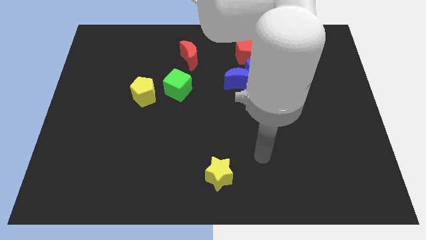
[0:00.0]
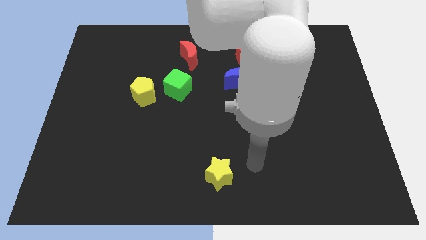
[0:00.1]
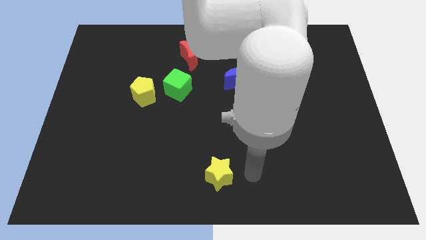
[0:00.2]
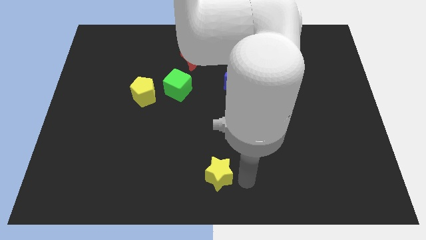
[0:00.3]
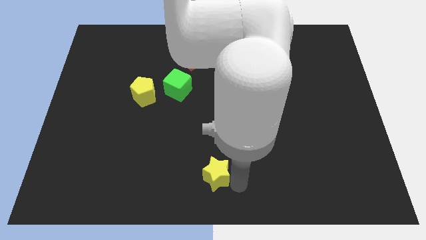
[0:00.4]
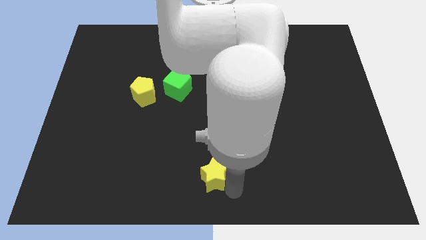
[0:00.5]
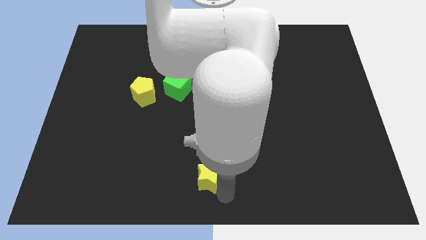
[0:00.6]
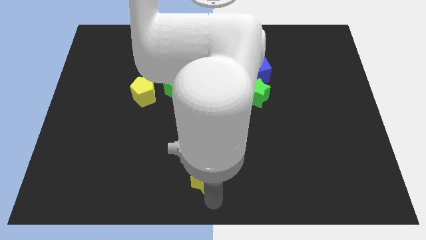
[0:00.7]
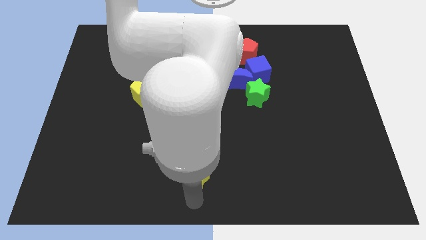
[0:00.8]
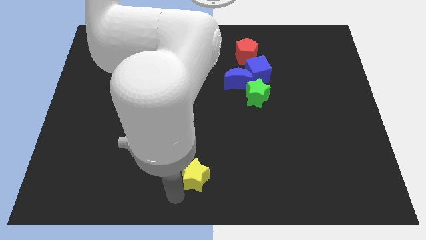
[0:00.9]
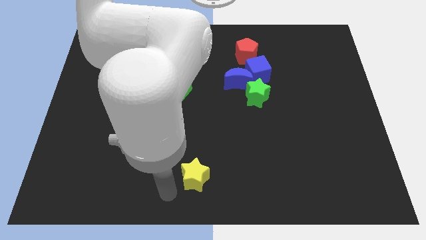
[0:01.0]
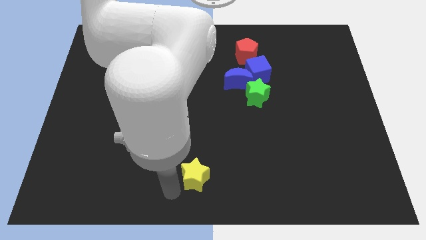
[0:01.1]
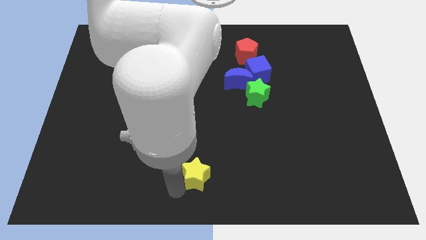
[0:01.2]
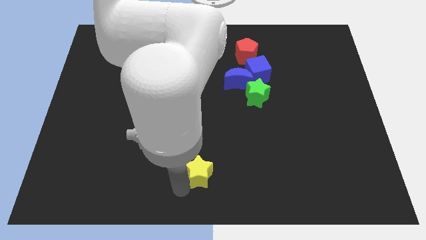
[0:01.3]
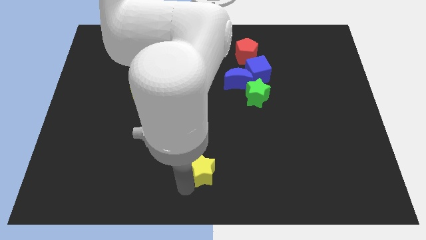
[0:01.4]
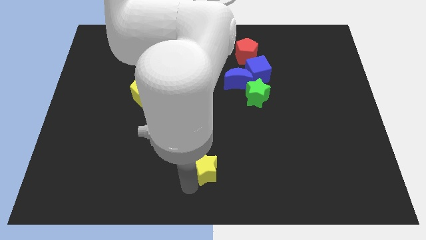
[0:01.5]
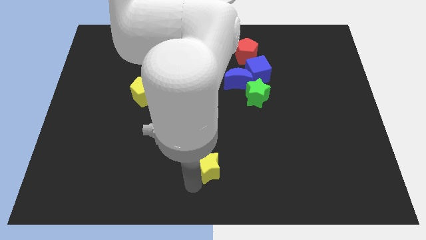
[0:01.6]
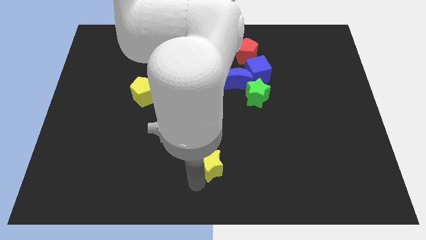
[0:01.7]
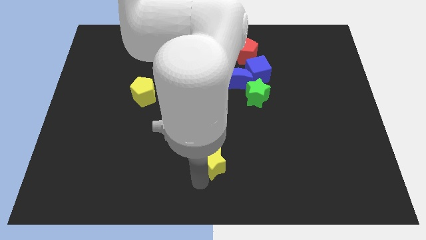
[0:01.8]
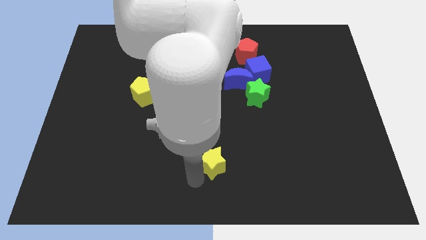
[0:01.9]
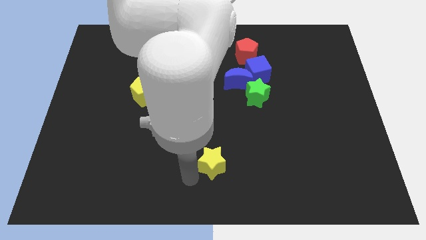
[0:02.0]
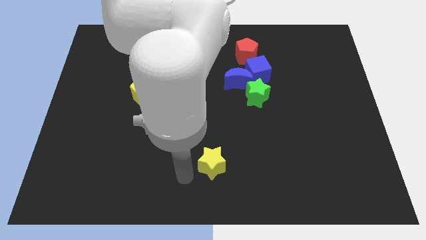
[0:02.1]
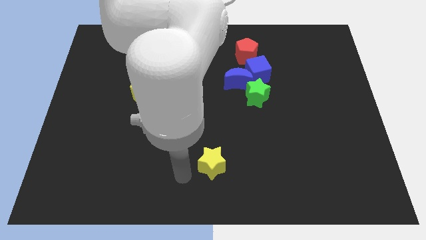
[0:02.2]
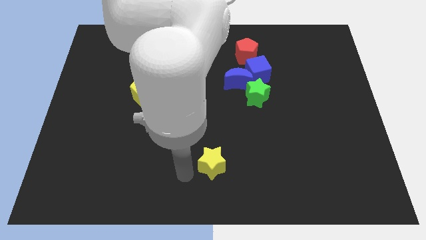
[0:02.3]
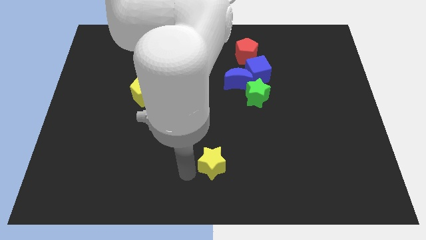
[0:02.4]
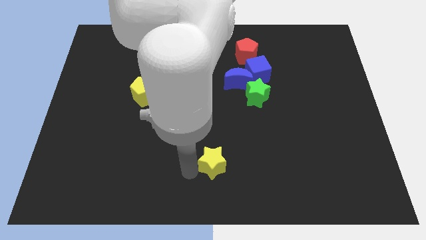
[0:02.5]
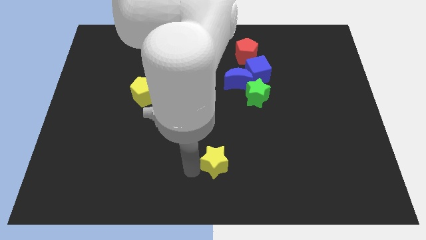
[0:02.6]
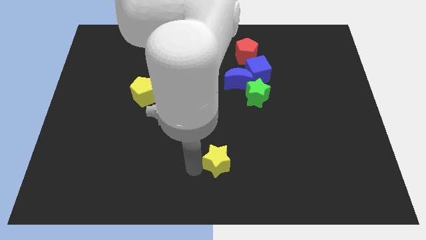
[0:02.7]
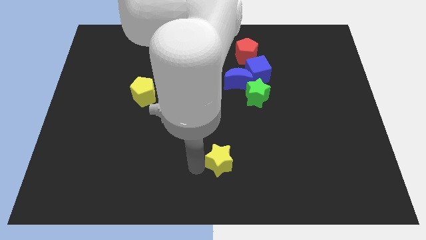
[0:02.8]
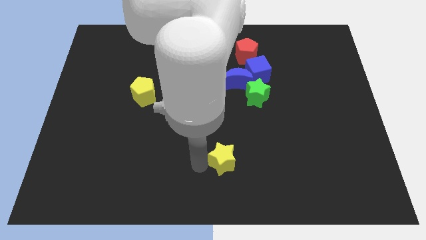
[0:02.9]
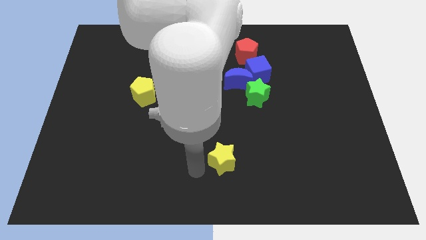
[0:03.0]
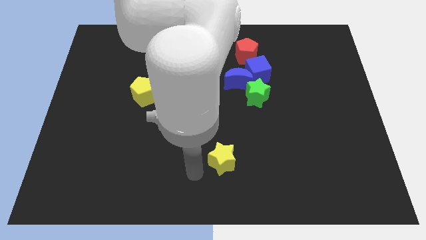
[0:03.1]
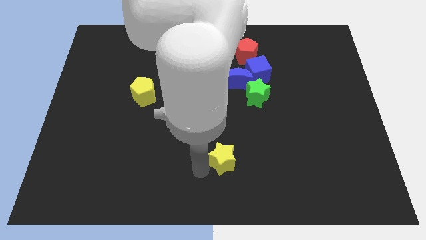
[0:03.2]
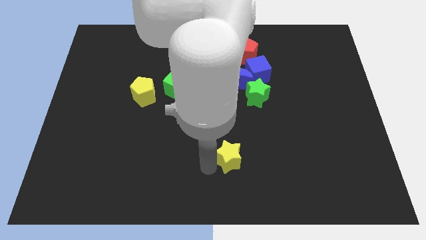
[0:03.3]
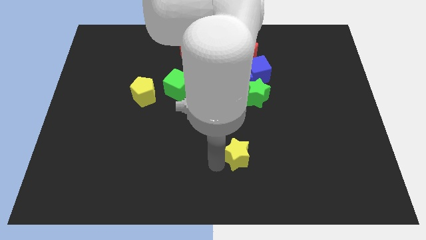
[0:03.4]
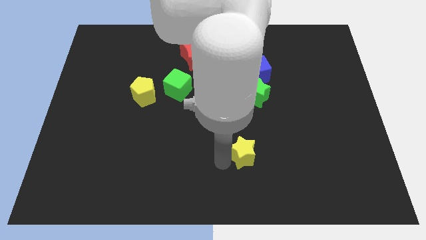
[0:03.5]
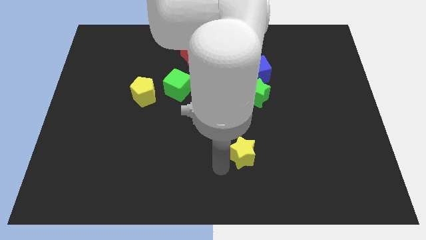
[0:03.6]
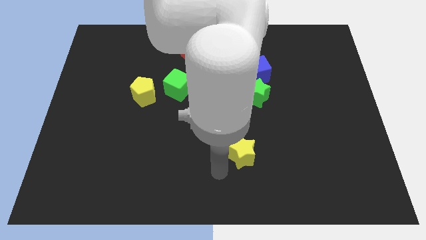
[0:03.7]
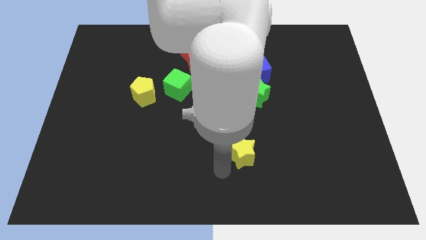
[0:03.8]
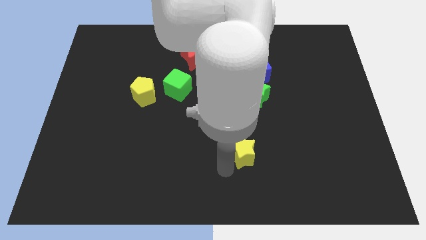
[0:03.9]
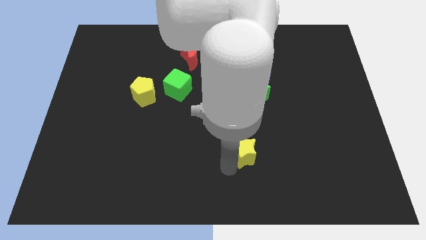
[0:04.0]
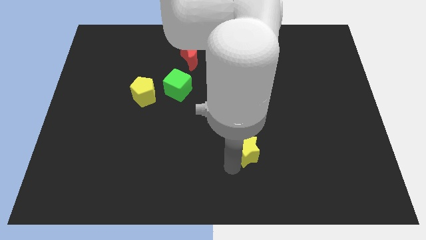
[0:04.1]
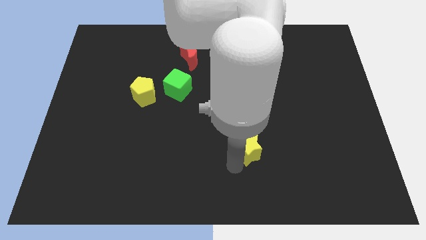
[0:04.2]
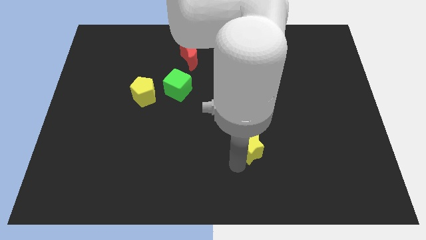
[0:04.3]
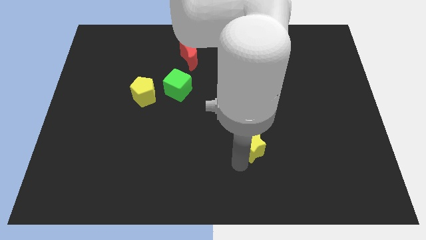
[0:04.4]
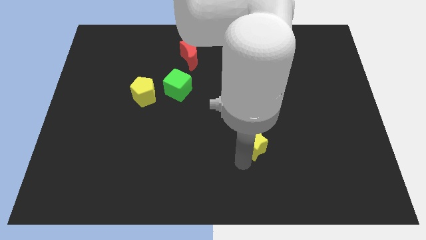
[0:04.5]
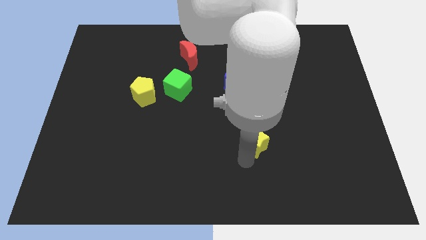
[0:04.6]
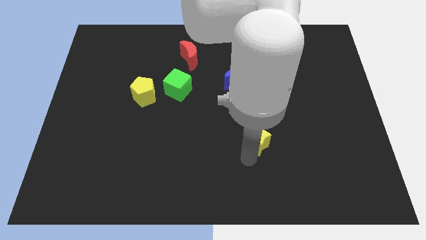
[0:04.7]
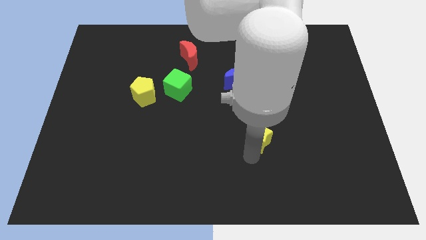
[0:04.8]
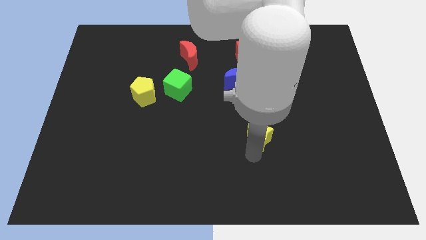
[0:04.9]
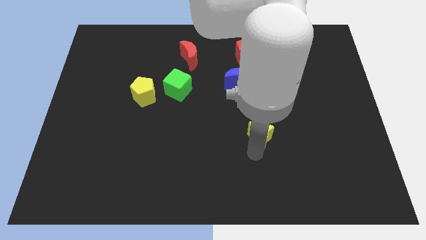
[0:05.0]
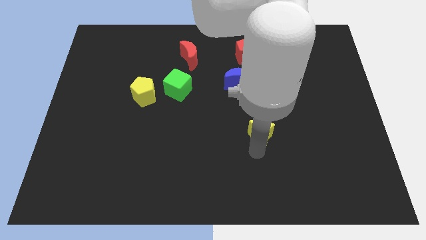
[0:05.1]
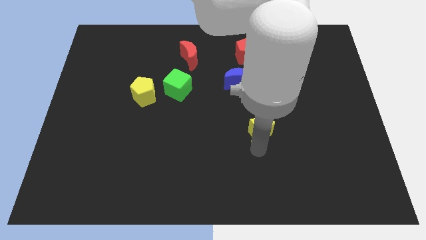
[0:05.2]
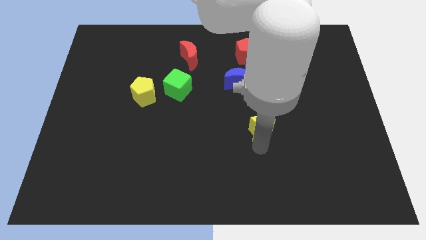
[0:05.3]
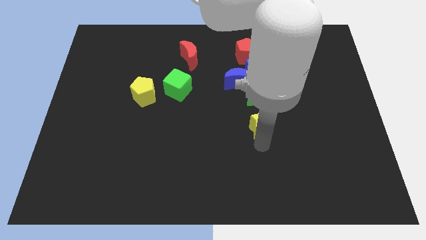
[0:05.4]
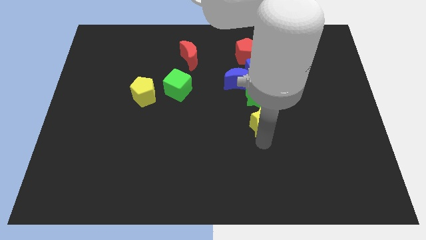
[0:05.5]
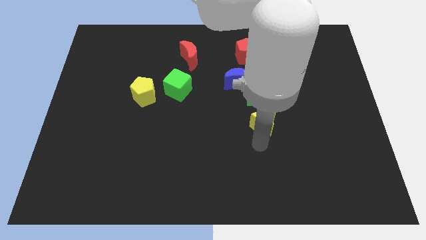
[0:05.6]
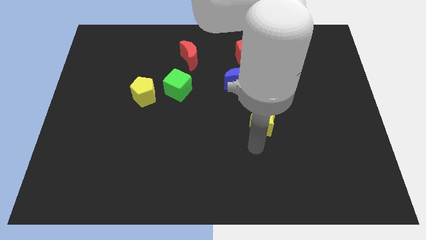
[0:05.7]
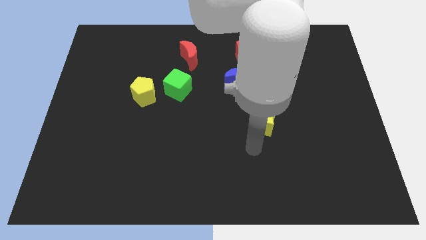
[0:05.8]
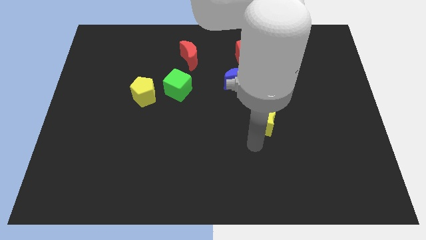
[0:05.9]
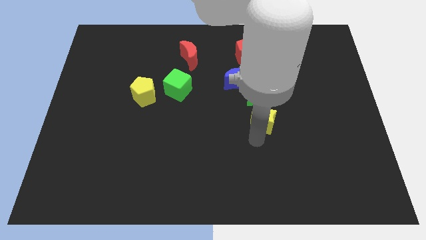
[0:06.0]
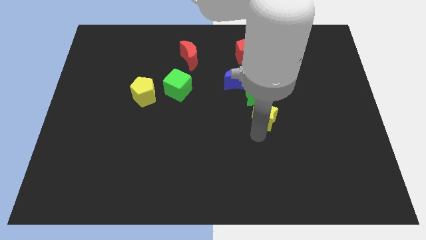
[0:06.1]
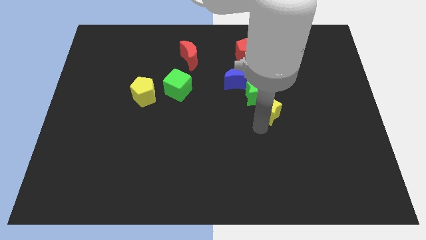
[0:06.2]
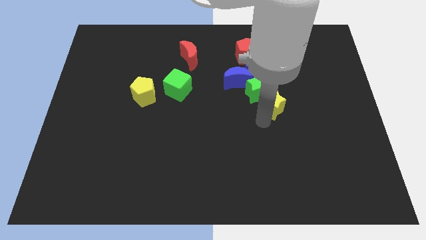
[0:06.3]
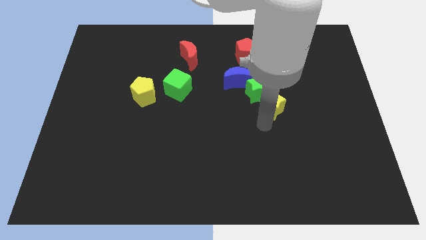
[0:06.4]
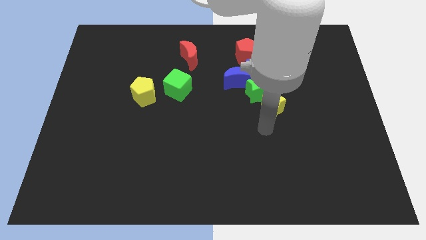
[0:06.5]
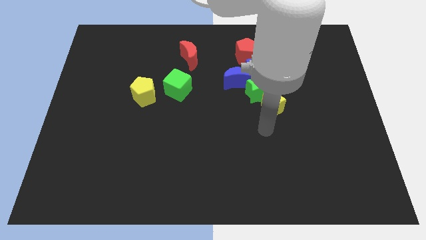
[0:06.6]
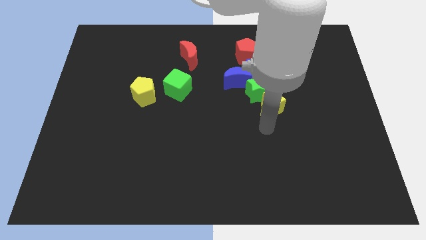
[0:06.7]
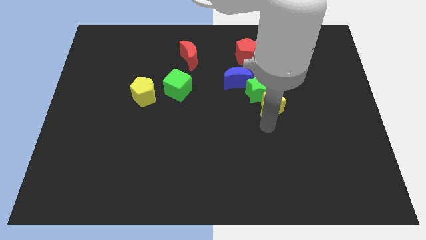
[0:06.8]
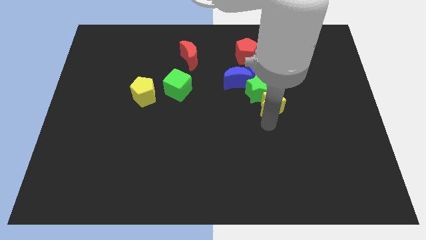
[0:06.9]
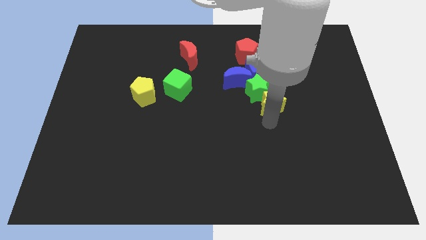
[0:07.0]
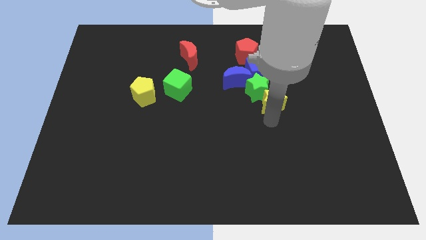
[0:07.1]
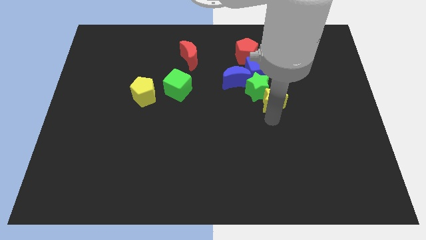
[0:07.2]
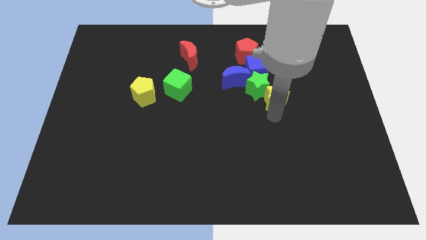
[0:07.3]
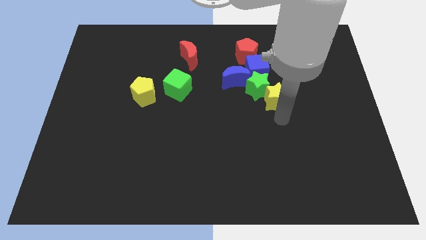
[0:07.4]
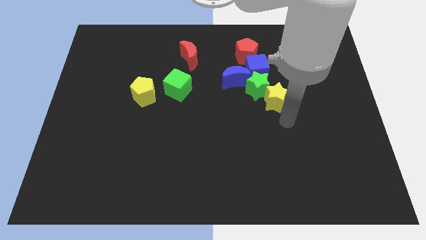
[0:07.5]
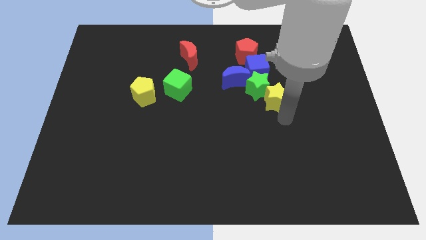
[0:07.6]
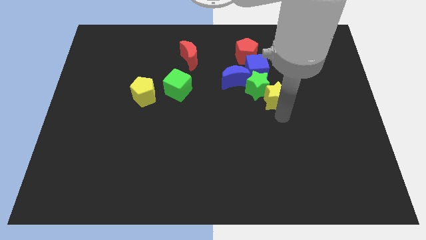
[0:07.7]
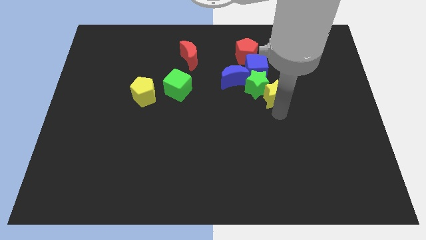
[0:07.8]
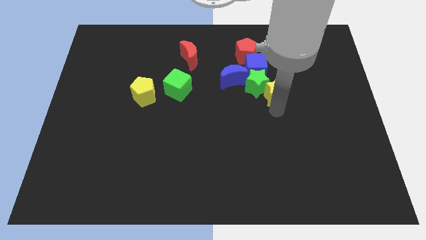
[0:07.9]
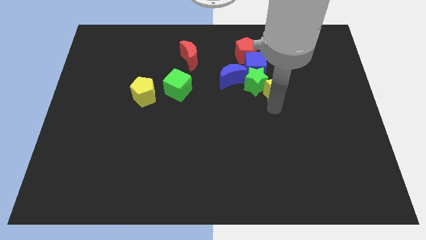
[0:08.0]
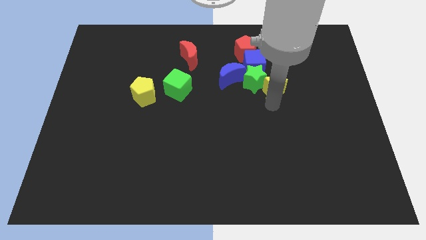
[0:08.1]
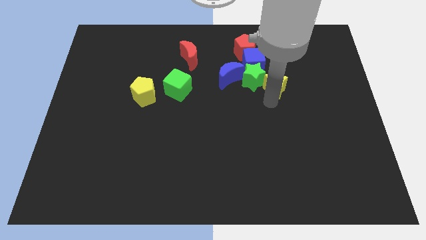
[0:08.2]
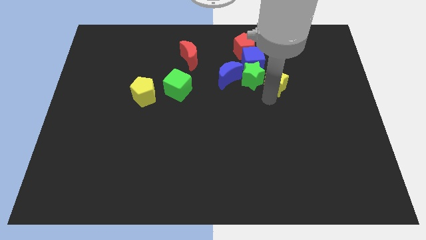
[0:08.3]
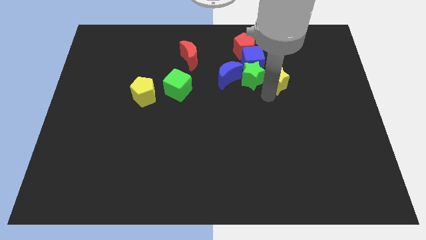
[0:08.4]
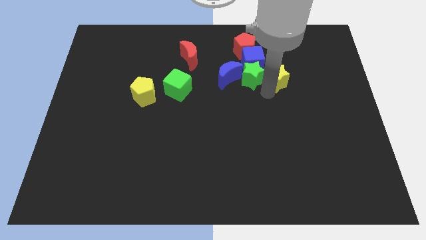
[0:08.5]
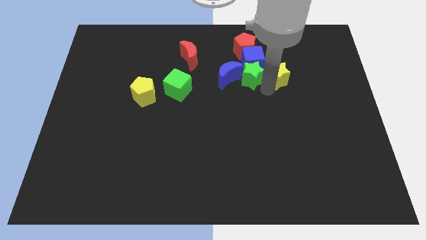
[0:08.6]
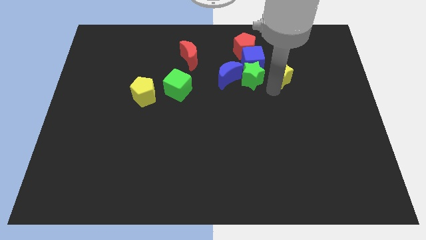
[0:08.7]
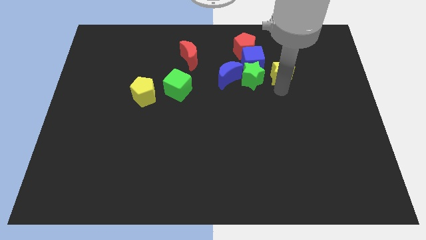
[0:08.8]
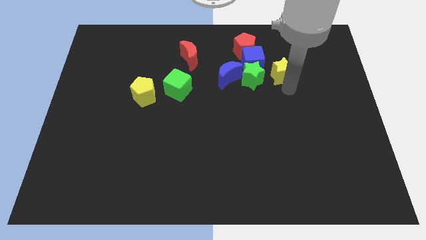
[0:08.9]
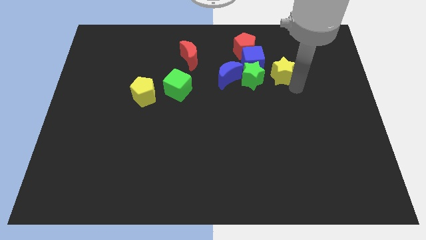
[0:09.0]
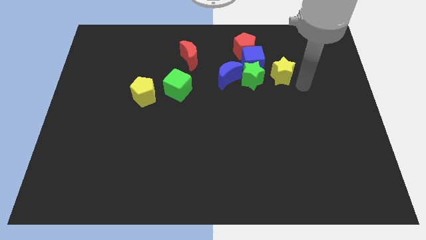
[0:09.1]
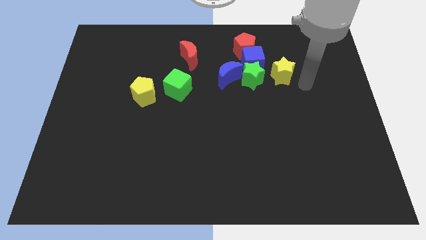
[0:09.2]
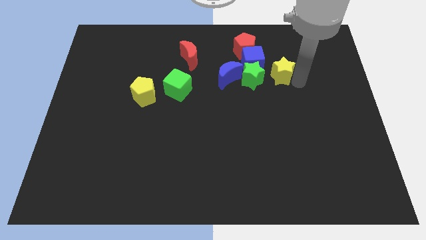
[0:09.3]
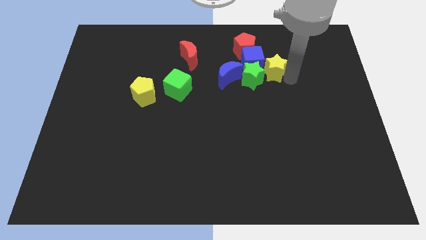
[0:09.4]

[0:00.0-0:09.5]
slide the yellow star towards the blue cube
